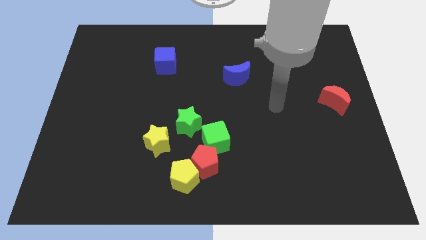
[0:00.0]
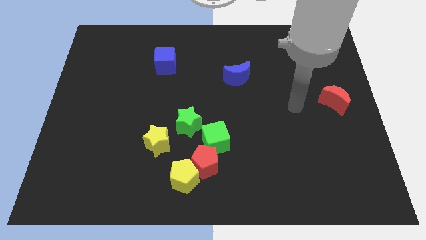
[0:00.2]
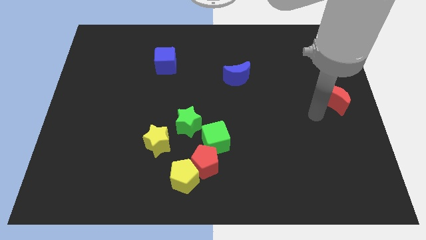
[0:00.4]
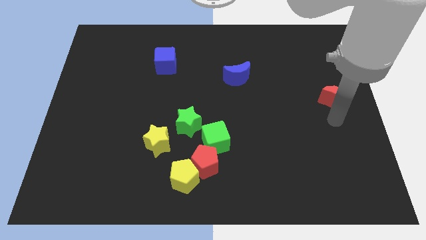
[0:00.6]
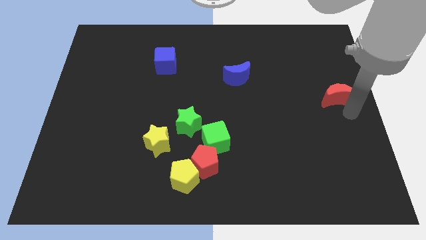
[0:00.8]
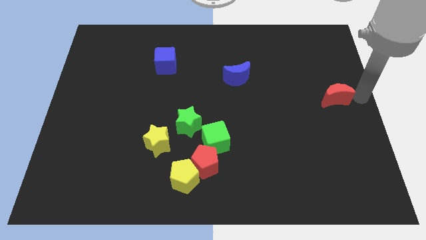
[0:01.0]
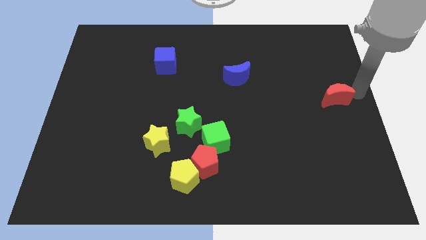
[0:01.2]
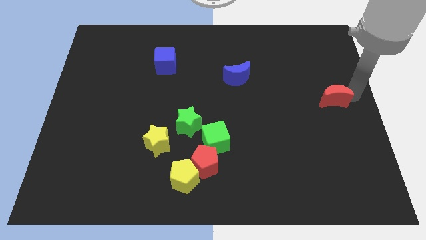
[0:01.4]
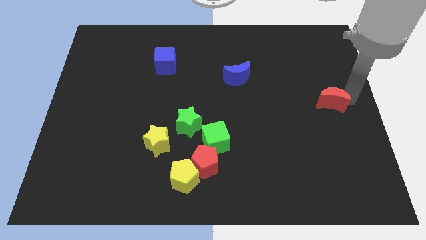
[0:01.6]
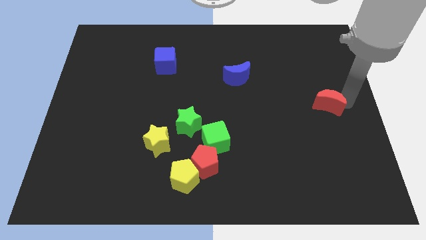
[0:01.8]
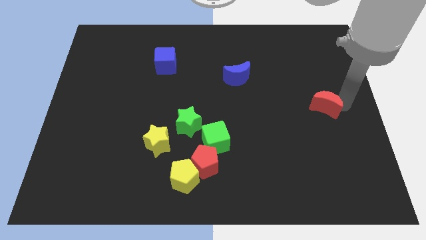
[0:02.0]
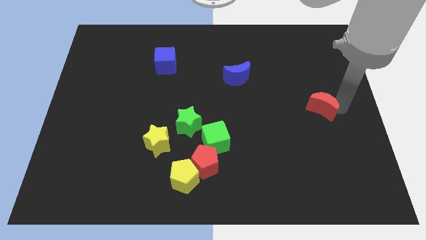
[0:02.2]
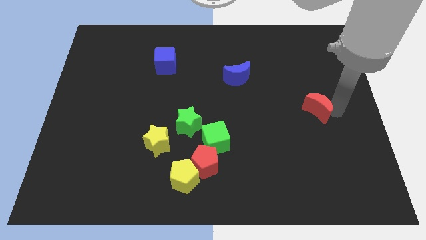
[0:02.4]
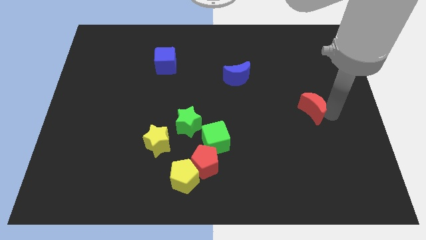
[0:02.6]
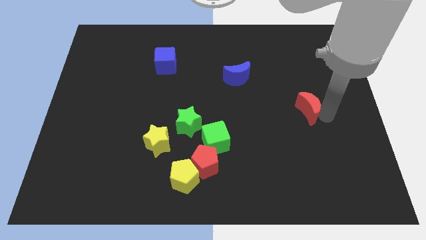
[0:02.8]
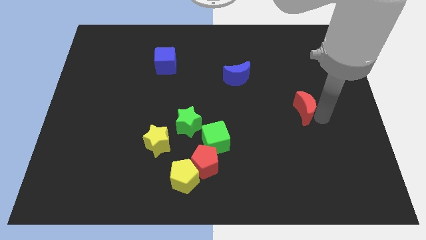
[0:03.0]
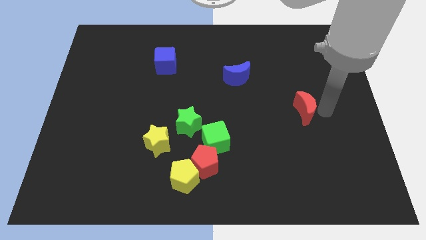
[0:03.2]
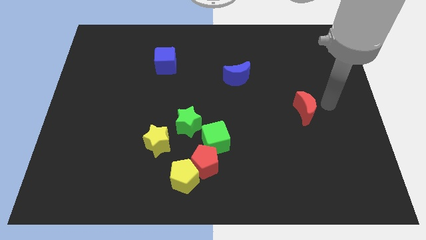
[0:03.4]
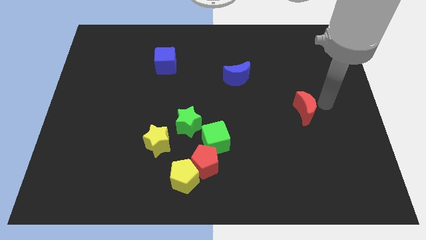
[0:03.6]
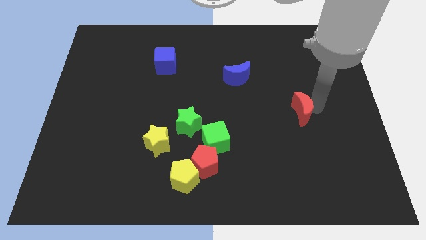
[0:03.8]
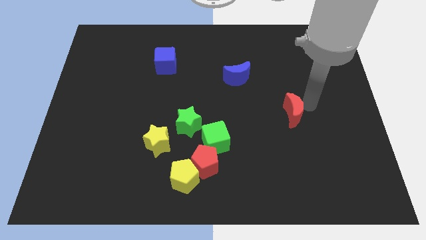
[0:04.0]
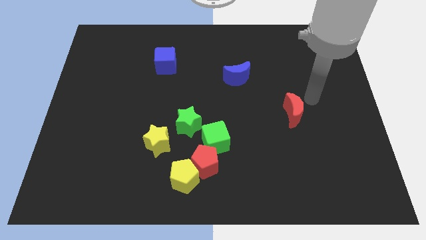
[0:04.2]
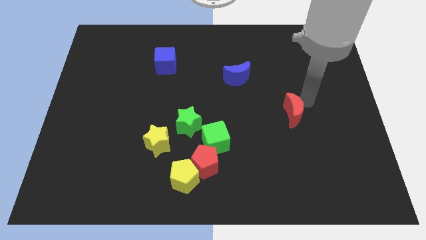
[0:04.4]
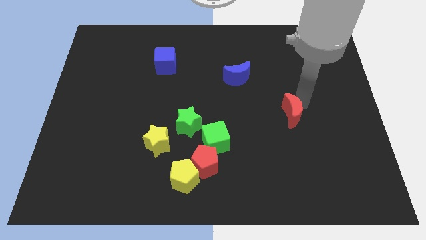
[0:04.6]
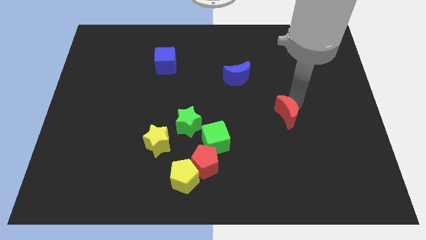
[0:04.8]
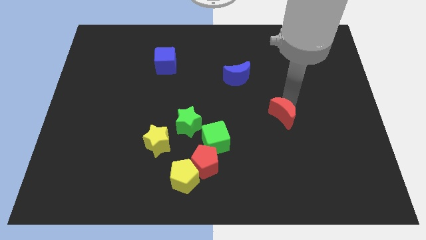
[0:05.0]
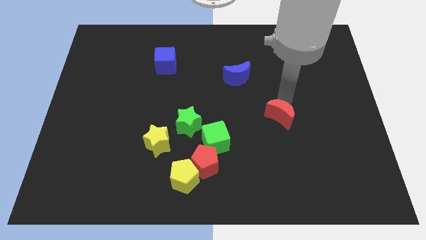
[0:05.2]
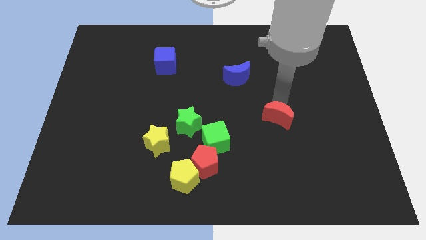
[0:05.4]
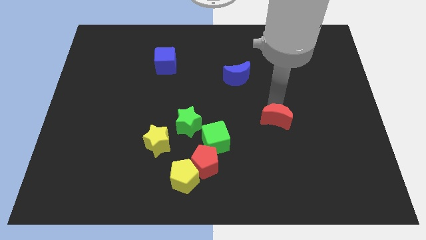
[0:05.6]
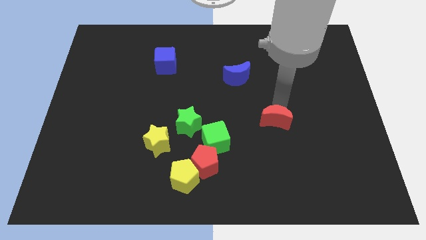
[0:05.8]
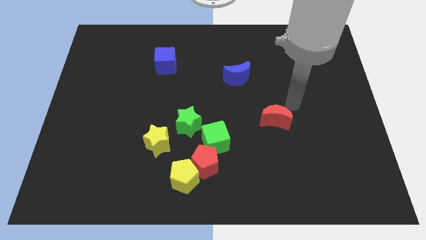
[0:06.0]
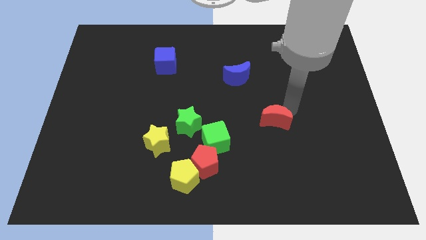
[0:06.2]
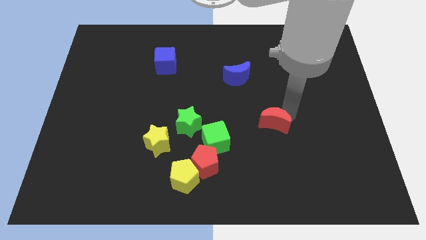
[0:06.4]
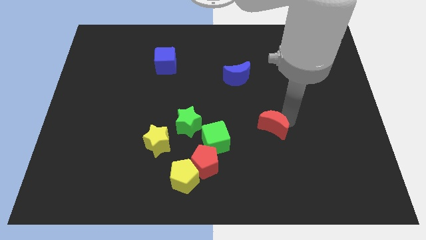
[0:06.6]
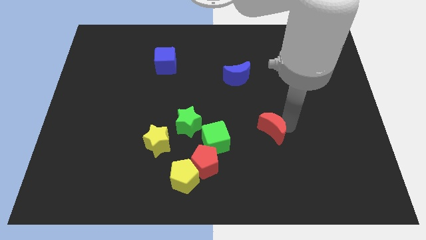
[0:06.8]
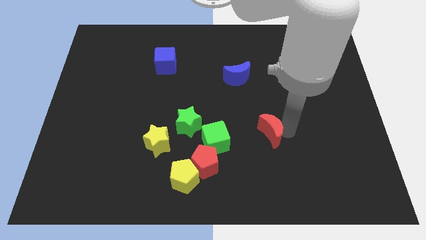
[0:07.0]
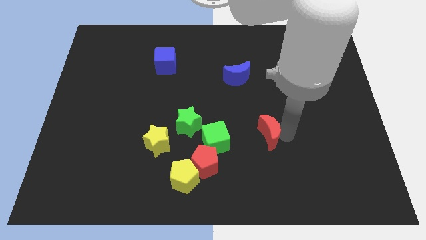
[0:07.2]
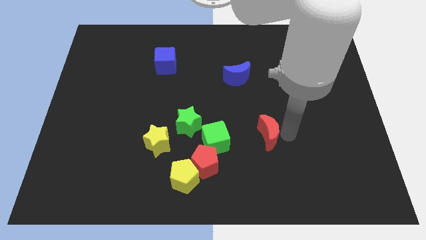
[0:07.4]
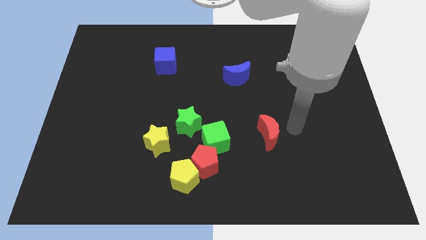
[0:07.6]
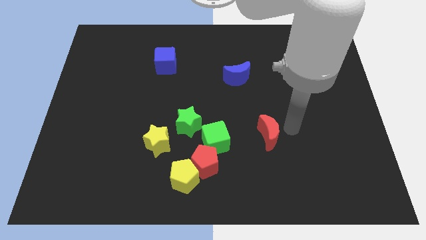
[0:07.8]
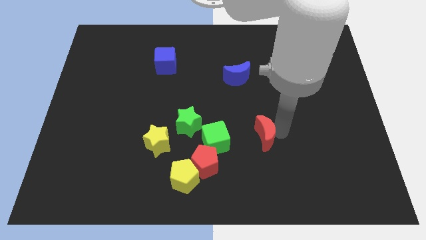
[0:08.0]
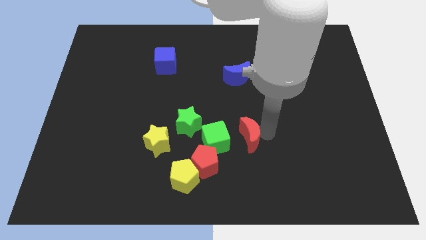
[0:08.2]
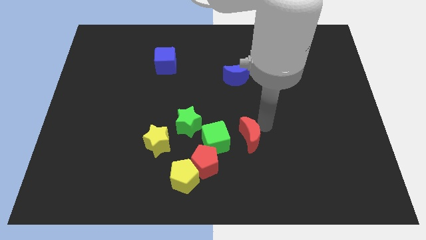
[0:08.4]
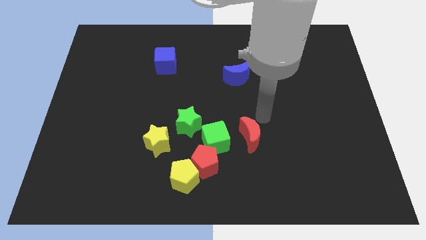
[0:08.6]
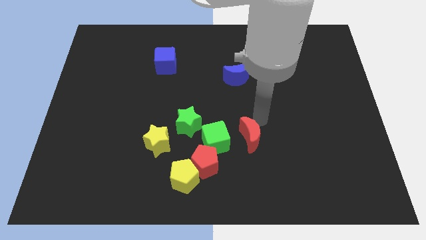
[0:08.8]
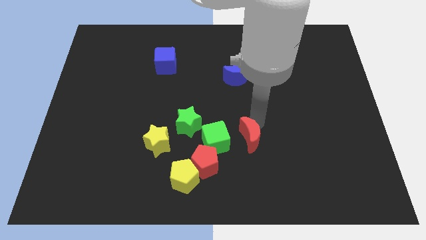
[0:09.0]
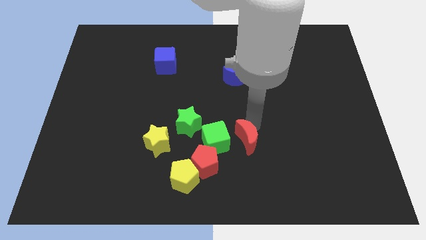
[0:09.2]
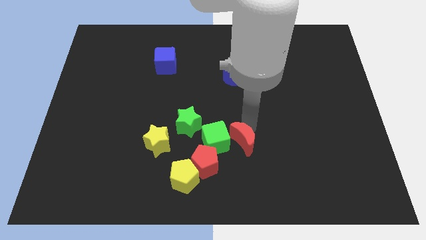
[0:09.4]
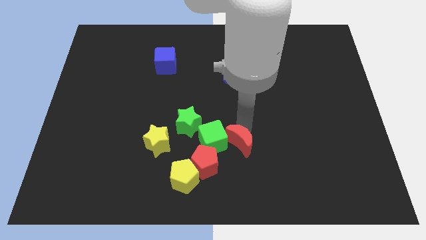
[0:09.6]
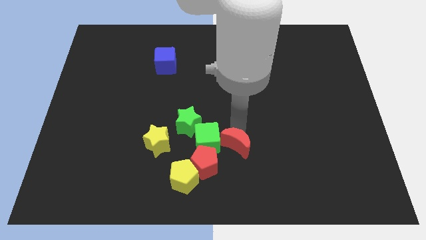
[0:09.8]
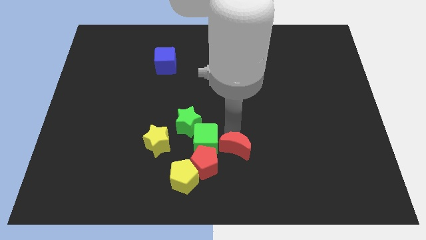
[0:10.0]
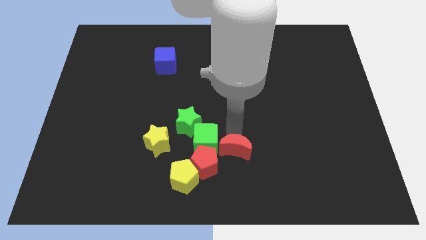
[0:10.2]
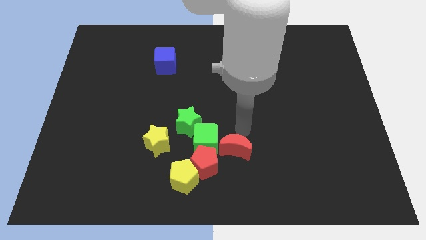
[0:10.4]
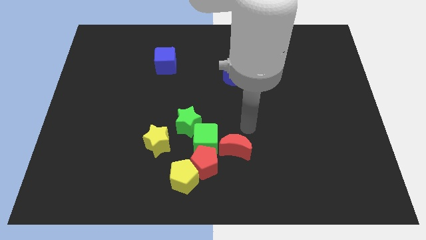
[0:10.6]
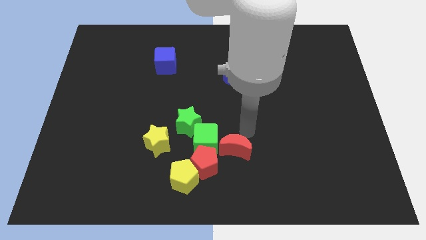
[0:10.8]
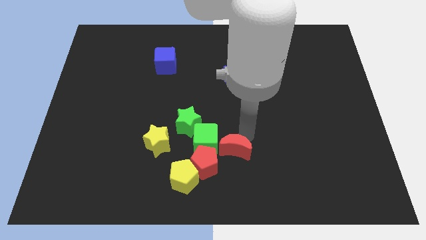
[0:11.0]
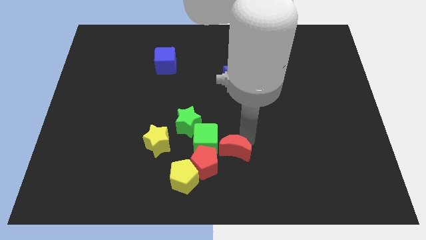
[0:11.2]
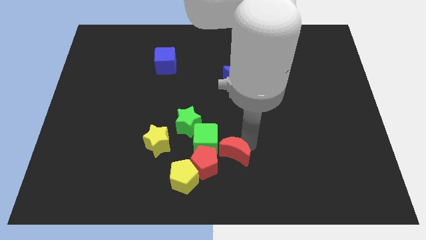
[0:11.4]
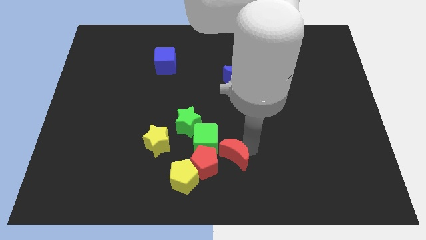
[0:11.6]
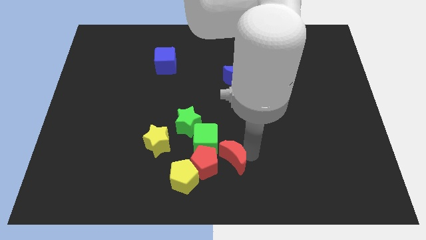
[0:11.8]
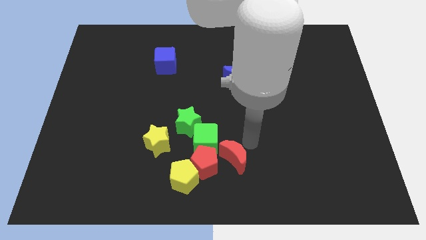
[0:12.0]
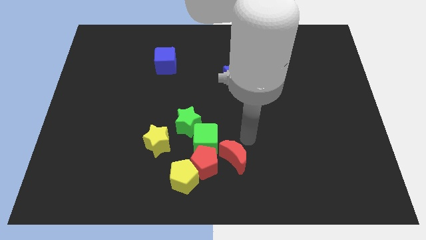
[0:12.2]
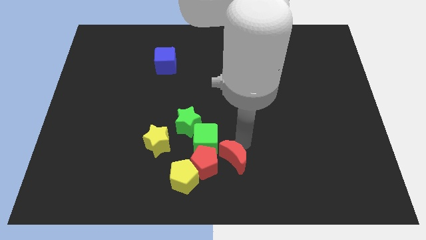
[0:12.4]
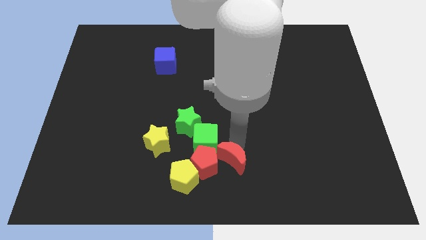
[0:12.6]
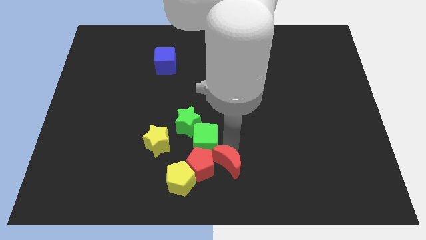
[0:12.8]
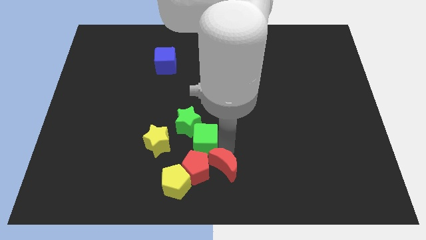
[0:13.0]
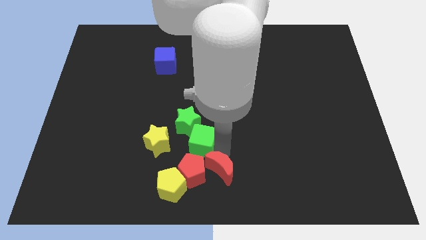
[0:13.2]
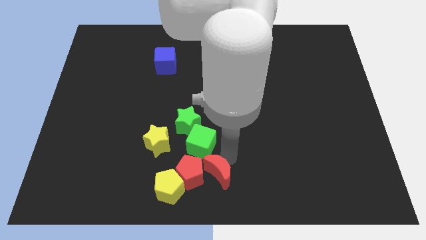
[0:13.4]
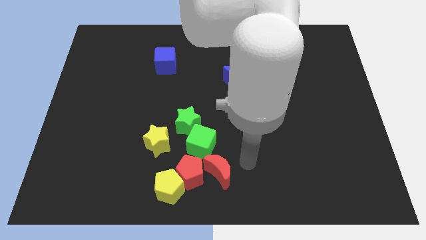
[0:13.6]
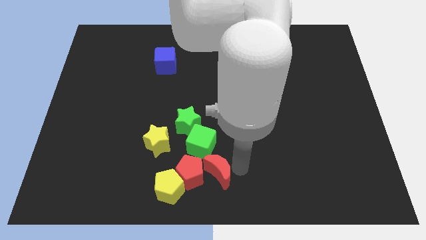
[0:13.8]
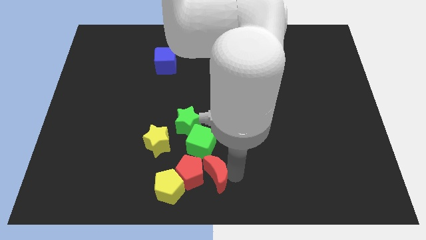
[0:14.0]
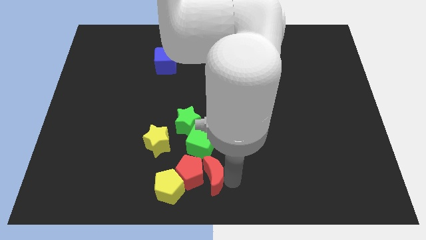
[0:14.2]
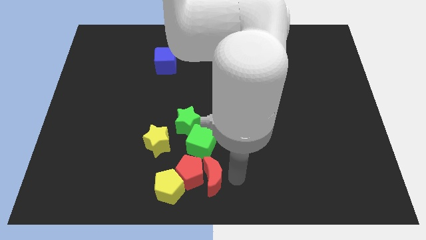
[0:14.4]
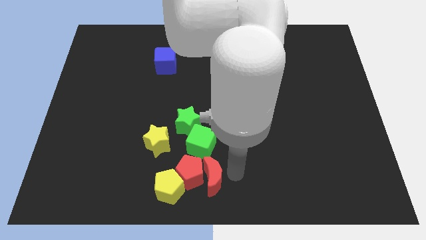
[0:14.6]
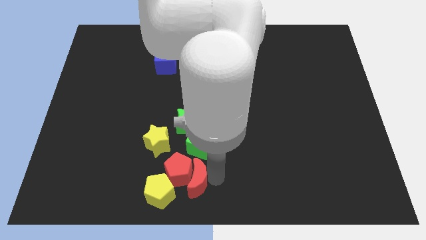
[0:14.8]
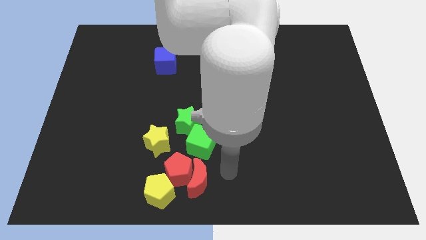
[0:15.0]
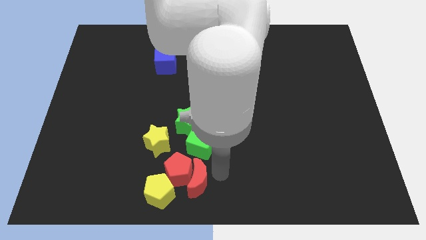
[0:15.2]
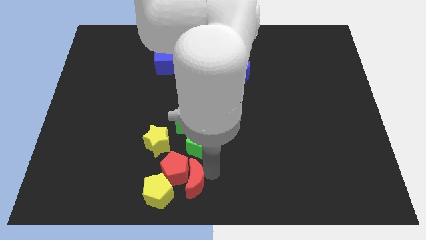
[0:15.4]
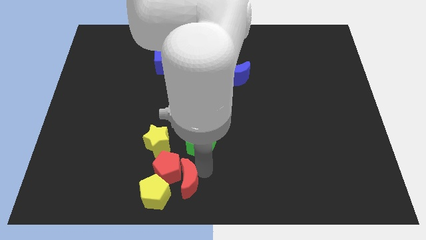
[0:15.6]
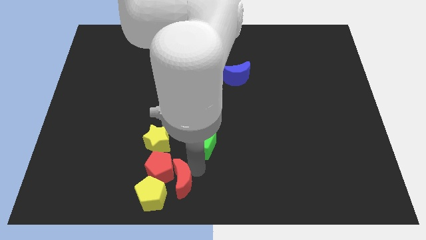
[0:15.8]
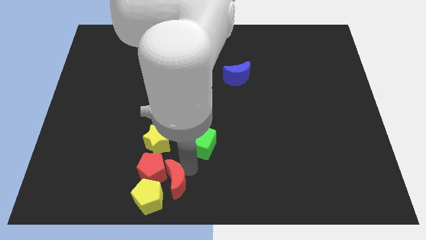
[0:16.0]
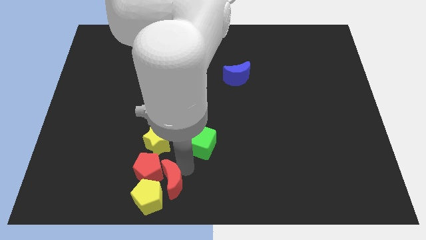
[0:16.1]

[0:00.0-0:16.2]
push the red moon towards the yellow pentagon
